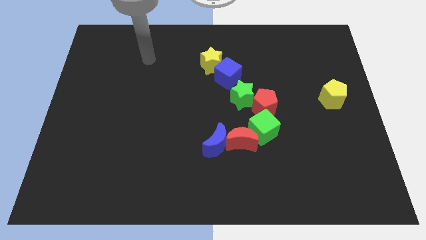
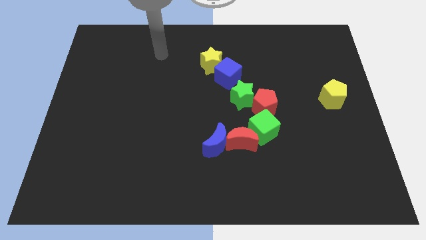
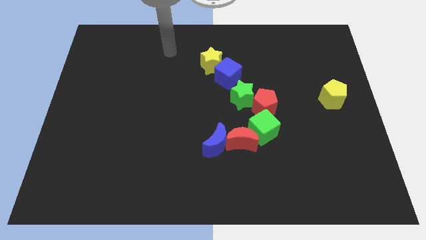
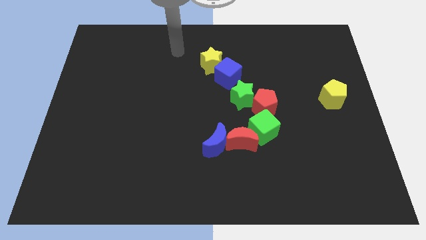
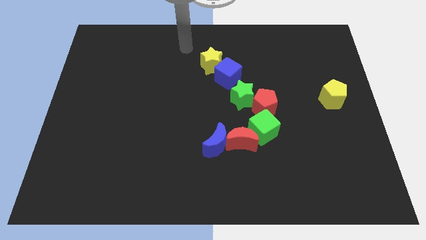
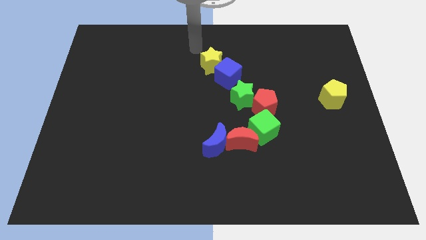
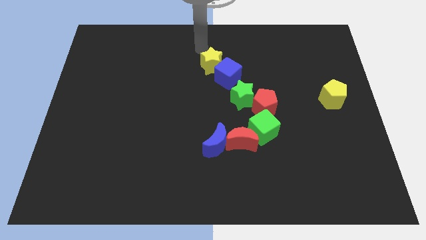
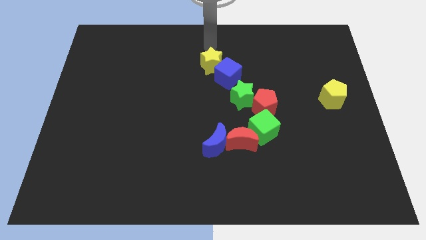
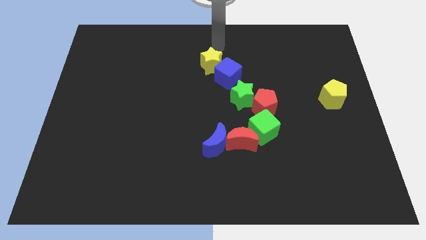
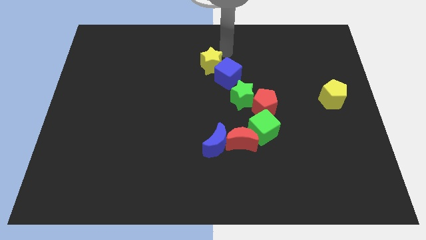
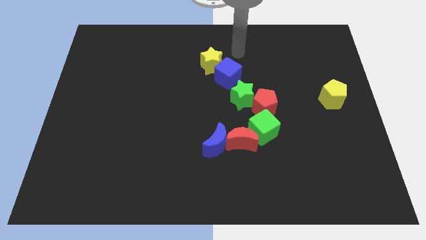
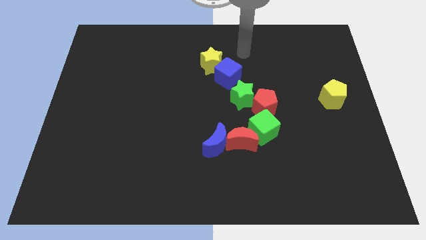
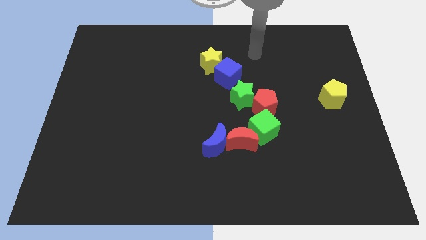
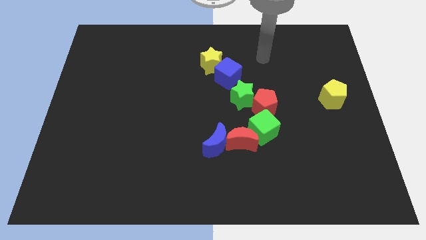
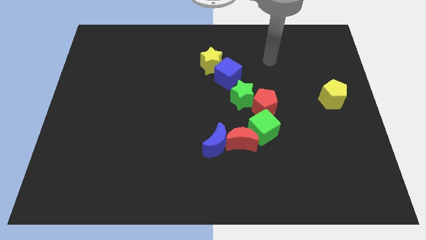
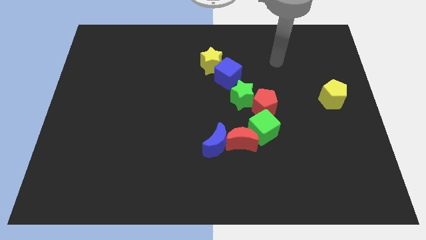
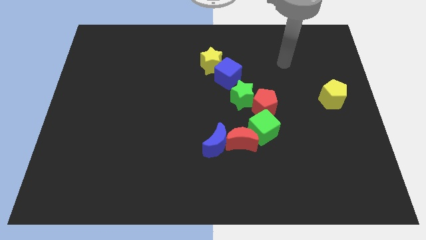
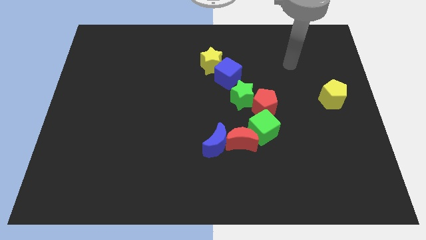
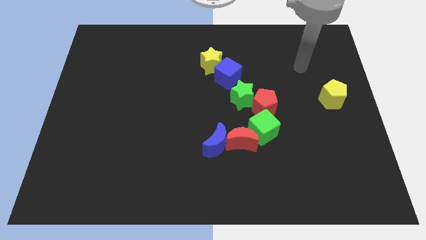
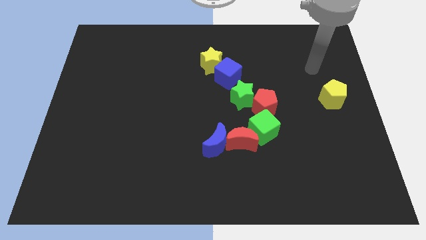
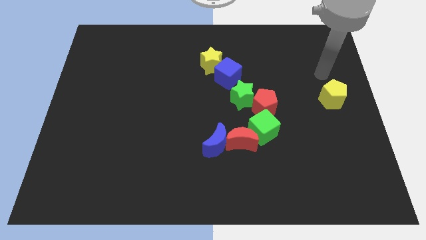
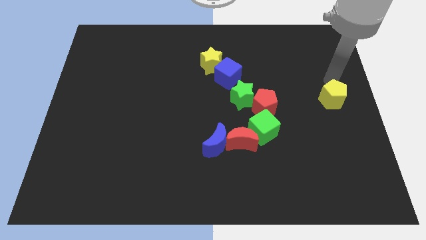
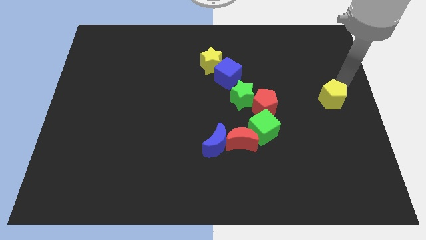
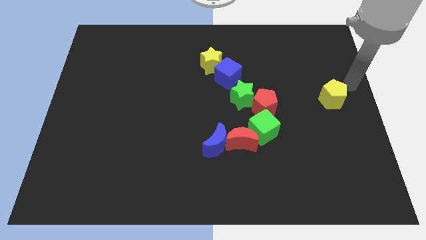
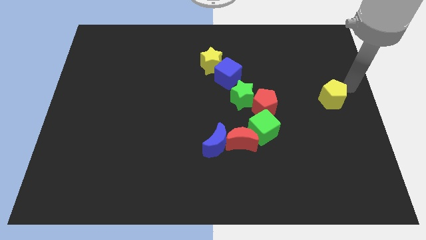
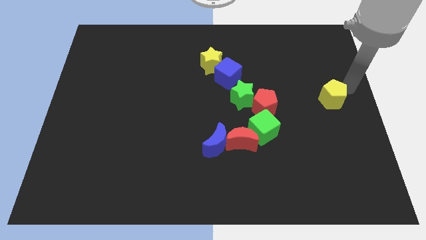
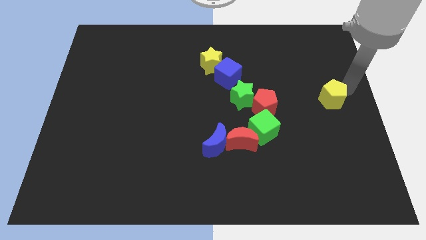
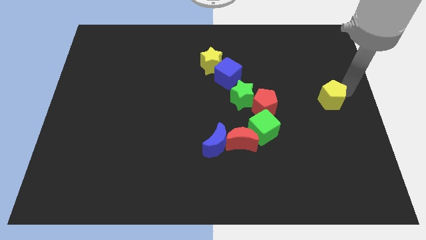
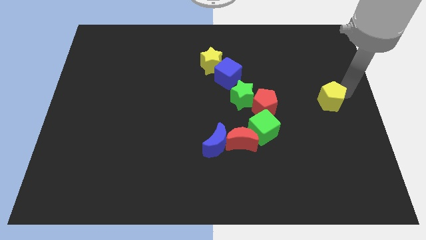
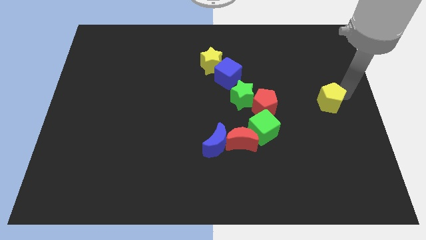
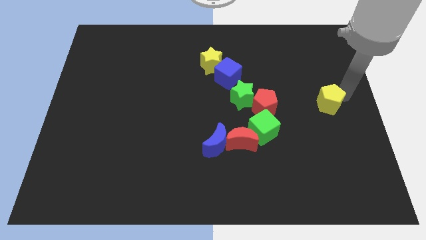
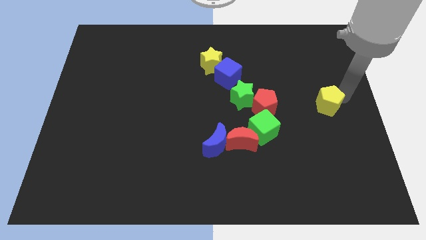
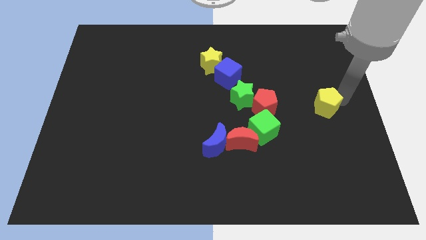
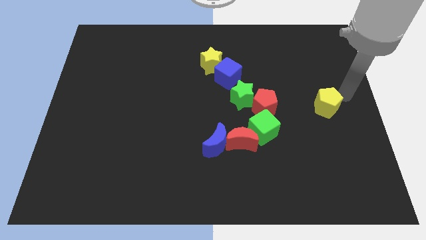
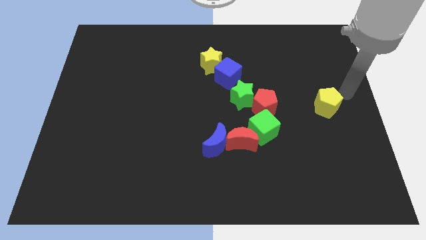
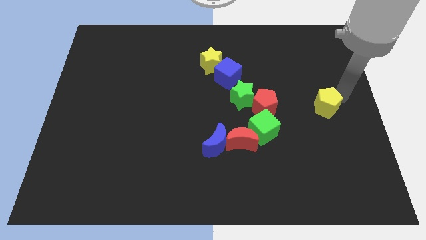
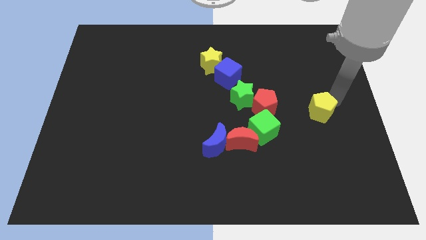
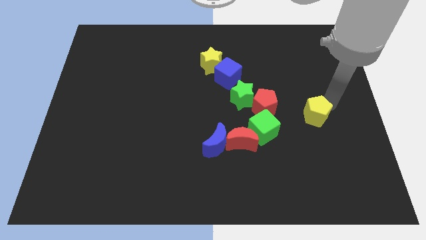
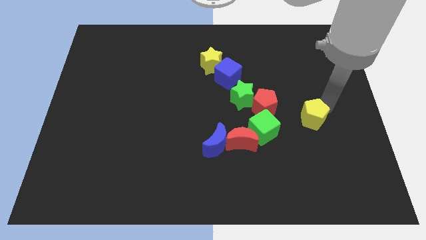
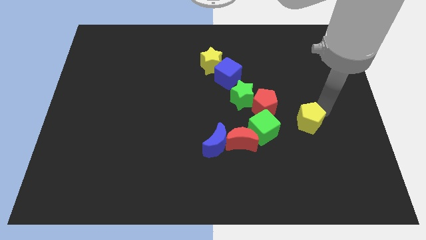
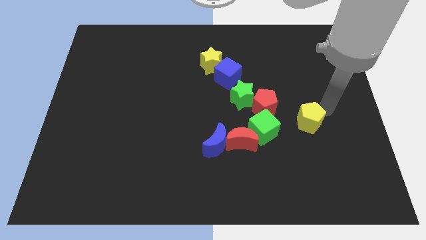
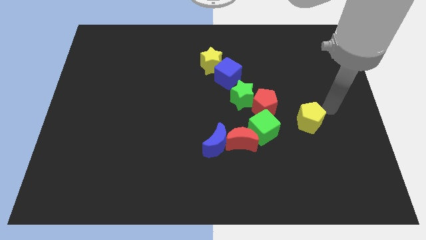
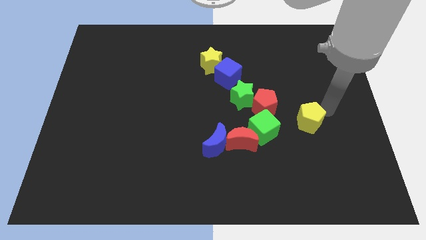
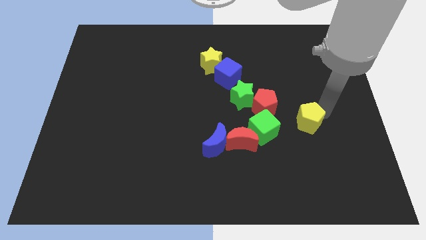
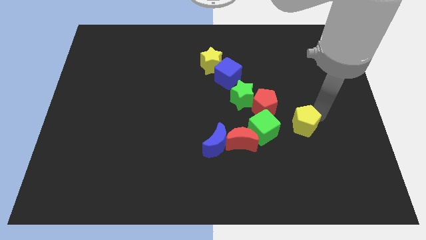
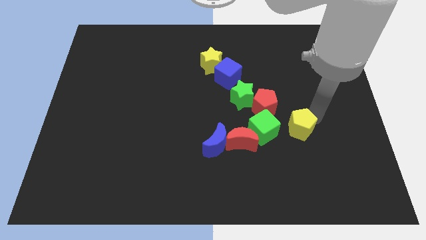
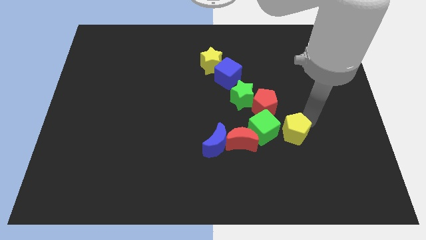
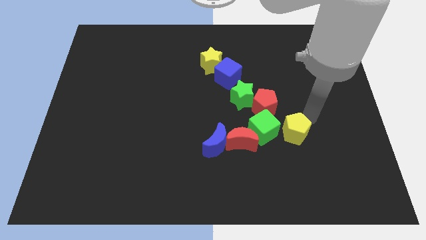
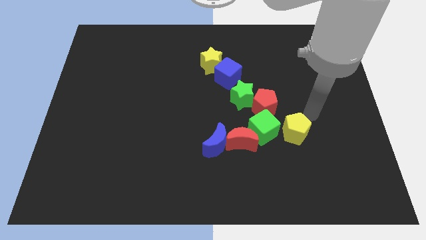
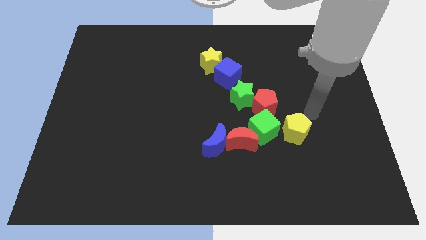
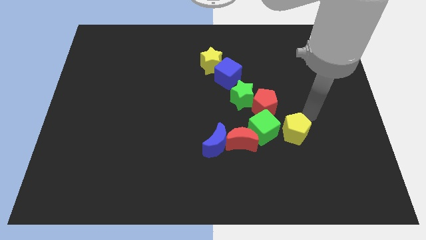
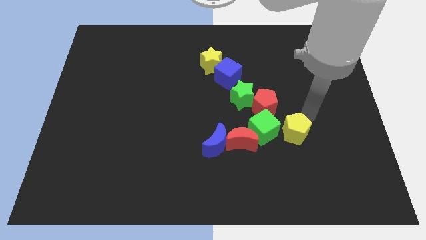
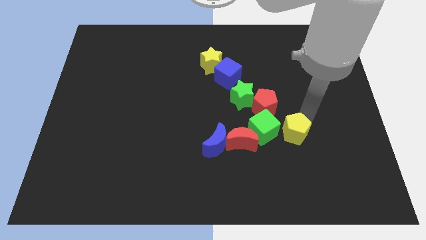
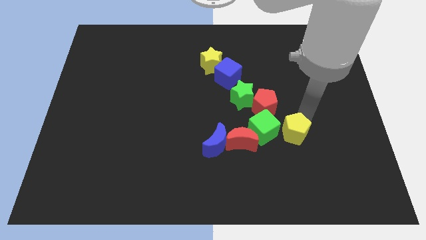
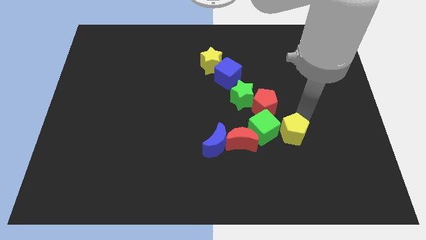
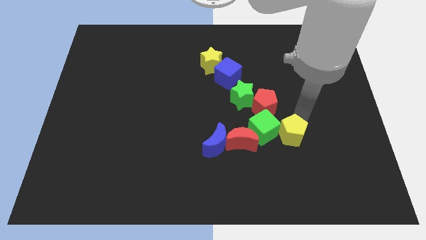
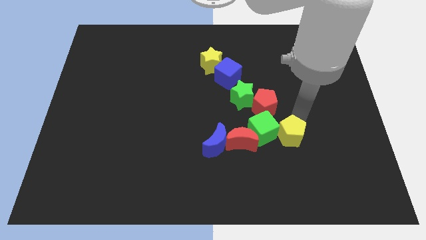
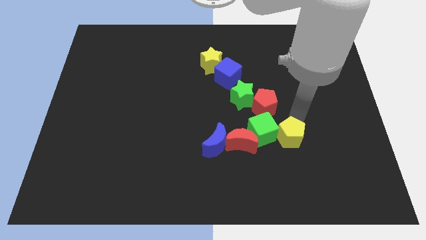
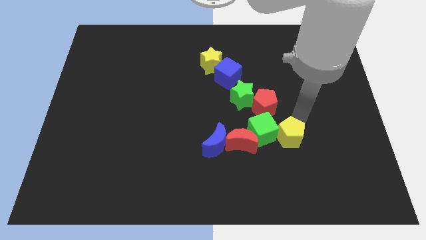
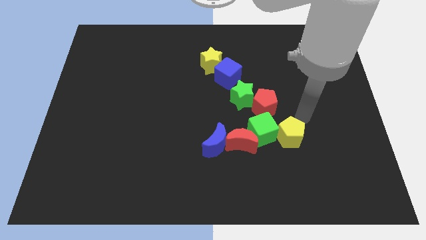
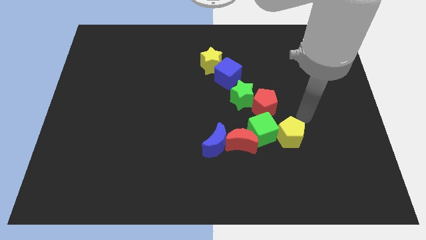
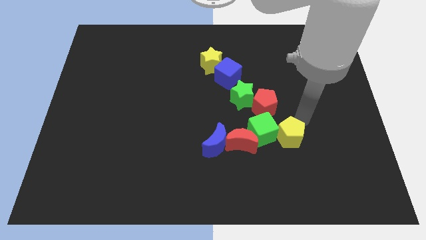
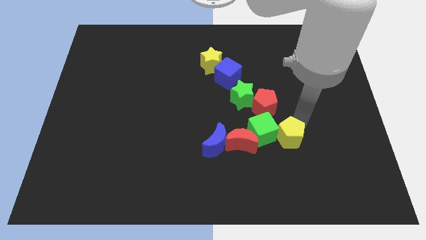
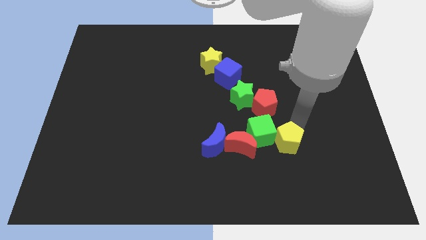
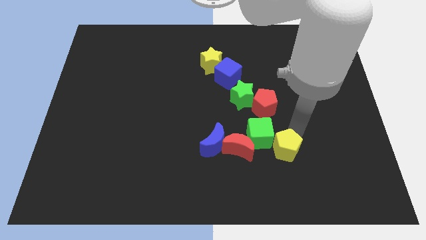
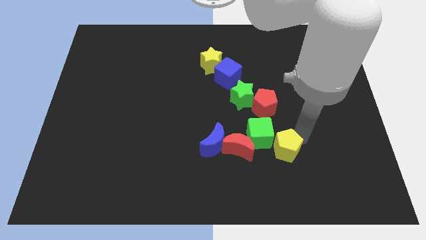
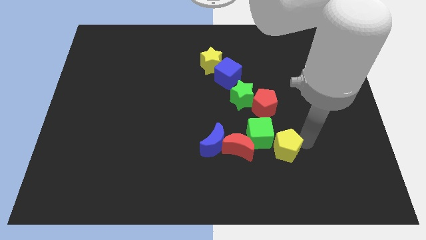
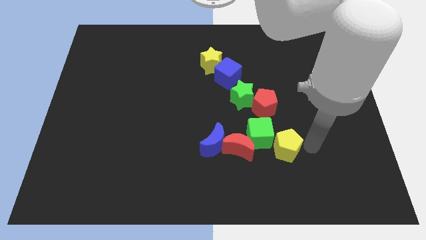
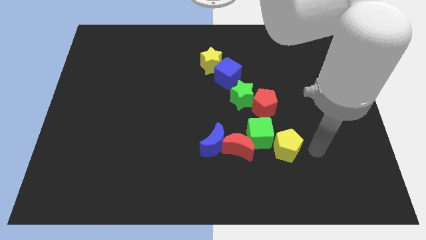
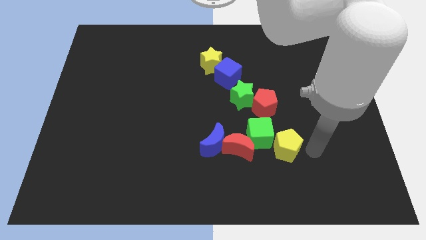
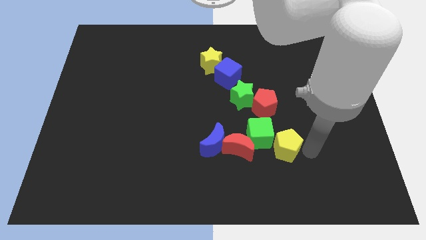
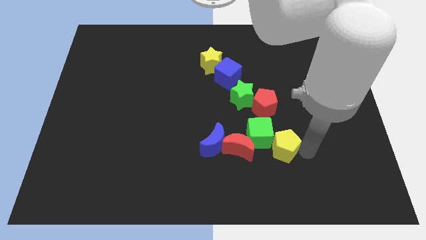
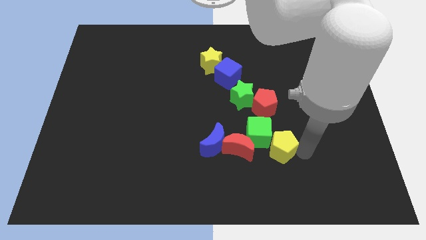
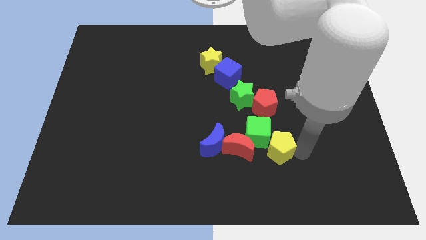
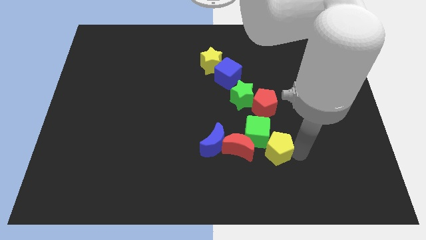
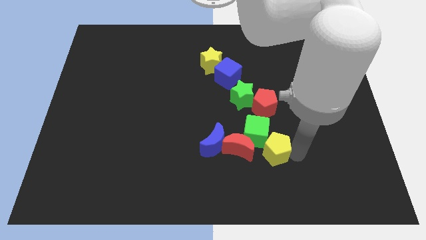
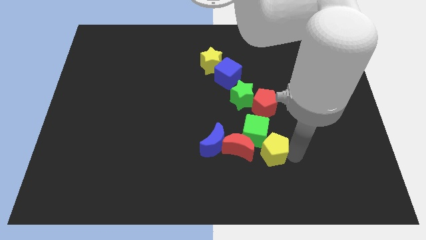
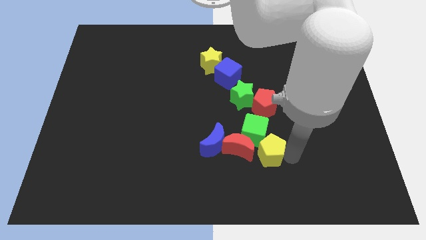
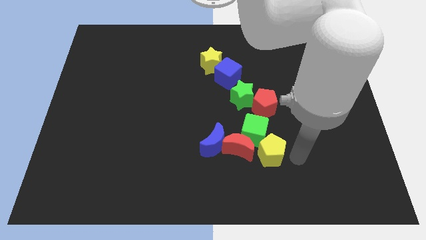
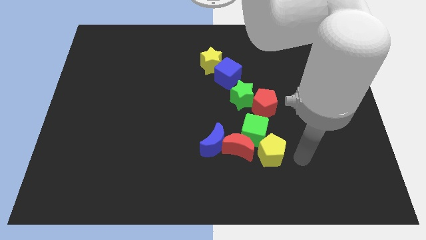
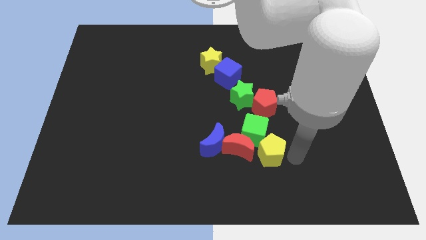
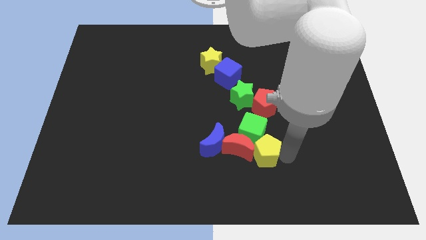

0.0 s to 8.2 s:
slide the yellow pentagon towards the red moon
